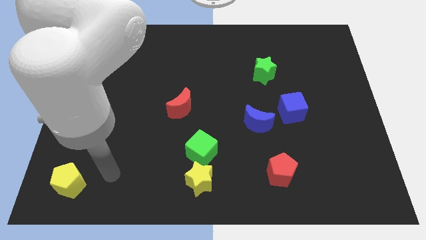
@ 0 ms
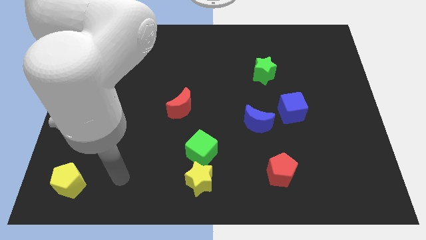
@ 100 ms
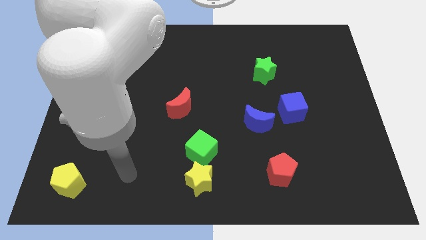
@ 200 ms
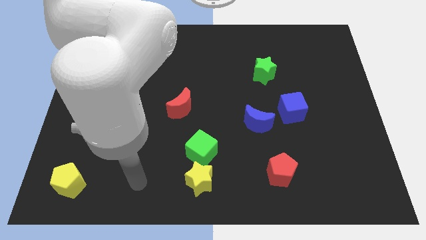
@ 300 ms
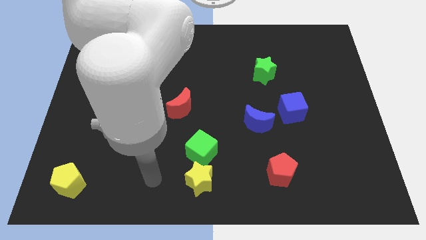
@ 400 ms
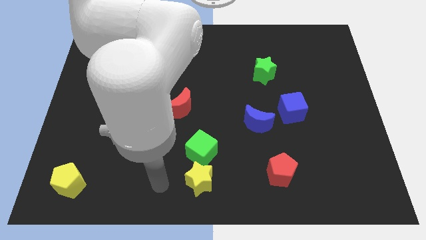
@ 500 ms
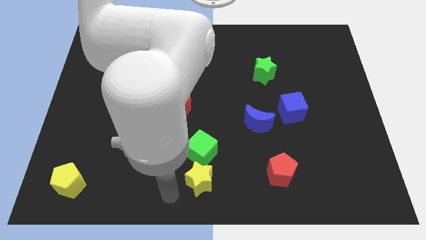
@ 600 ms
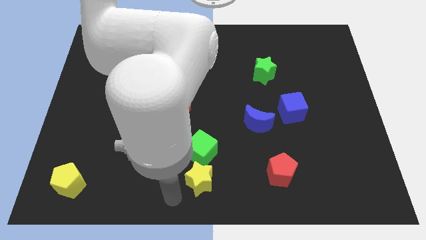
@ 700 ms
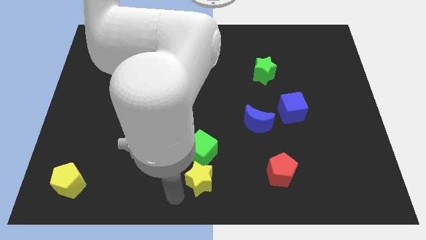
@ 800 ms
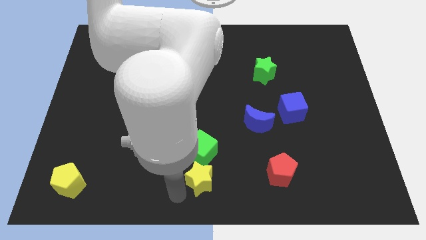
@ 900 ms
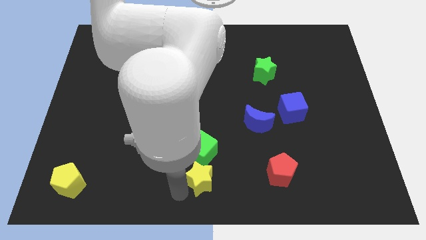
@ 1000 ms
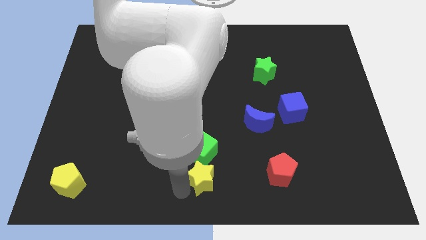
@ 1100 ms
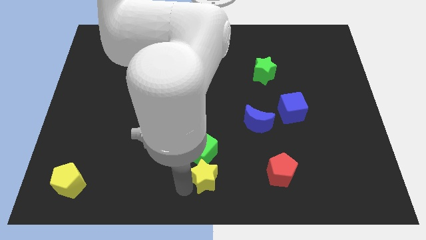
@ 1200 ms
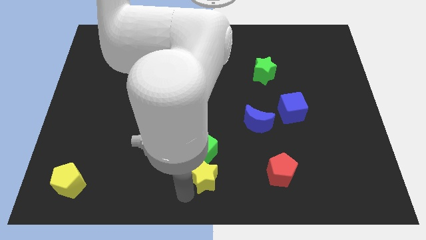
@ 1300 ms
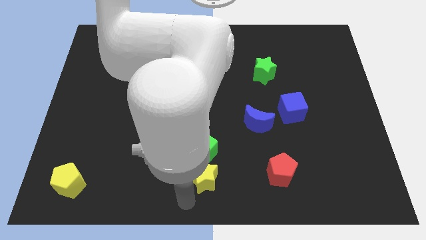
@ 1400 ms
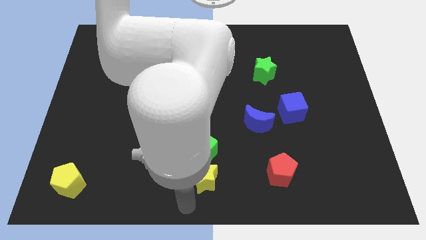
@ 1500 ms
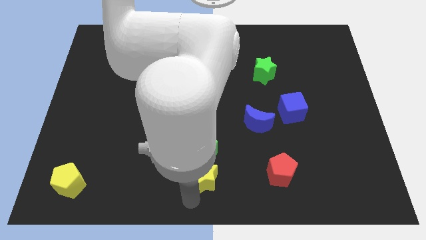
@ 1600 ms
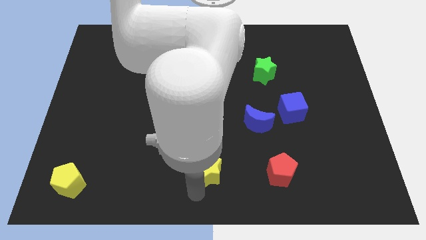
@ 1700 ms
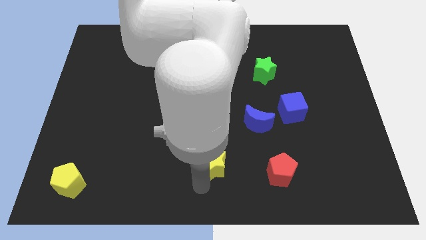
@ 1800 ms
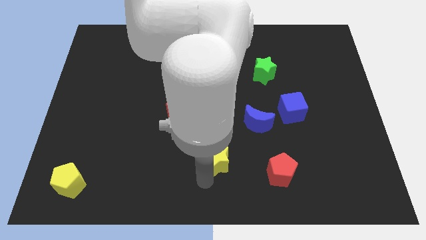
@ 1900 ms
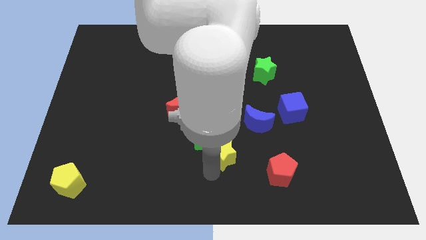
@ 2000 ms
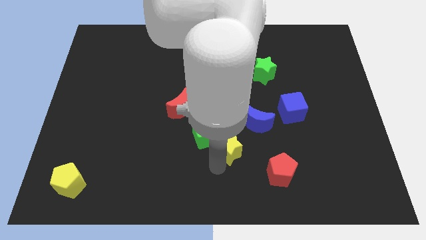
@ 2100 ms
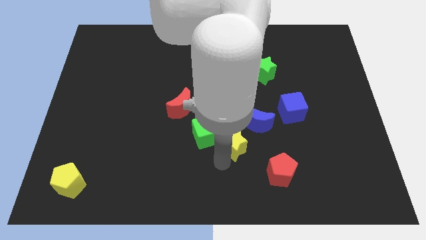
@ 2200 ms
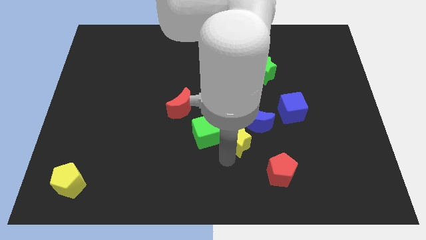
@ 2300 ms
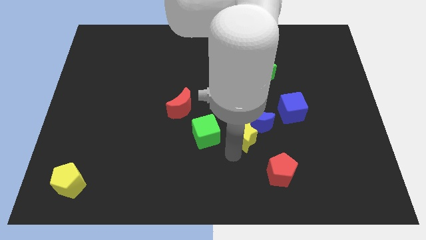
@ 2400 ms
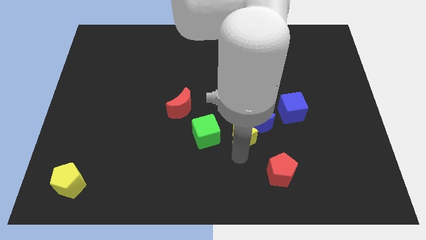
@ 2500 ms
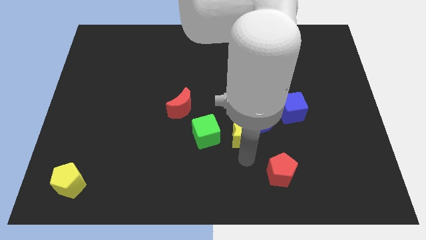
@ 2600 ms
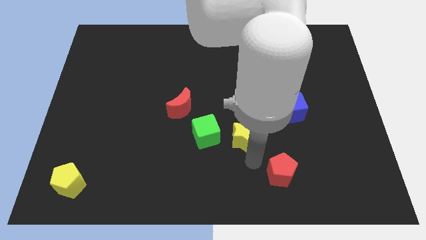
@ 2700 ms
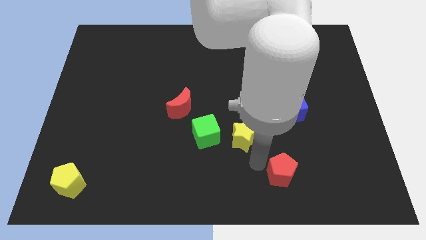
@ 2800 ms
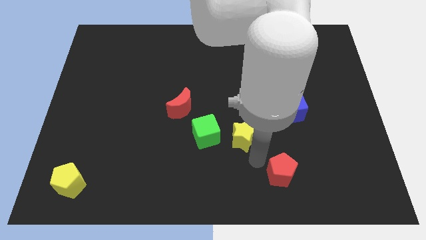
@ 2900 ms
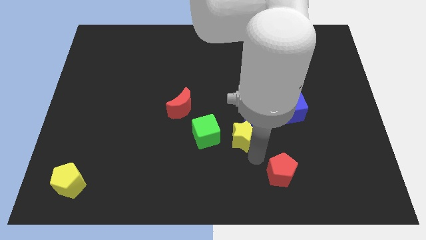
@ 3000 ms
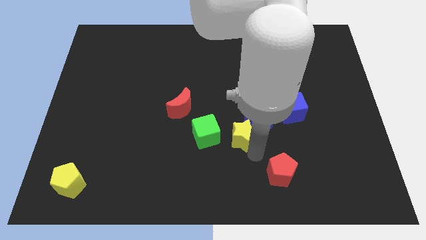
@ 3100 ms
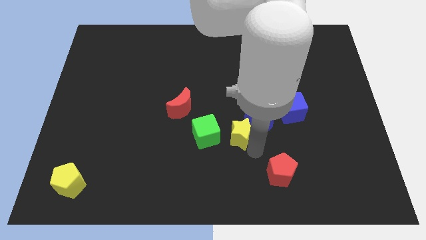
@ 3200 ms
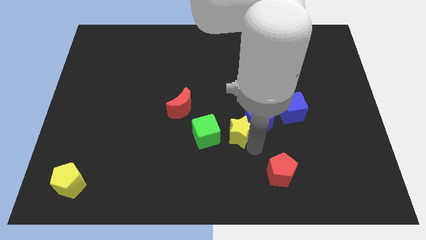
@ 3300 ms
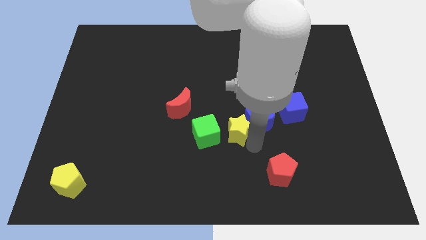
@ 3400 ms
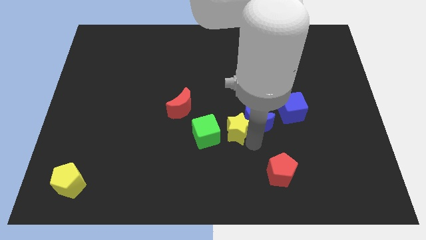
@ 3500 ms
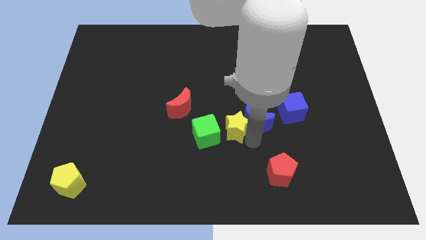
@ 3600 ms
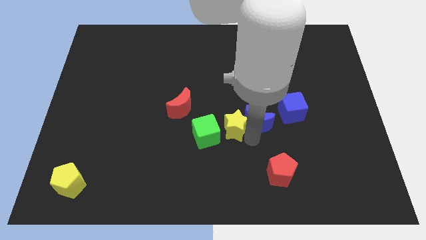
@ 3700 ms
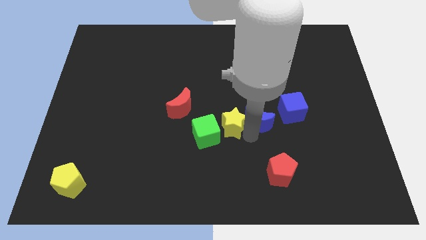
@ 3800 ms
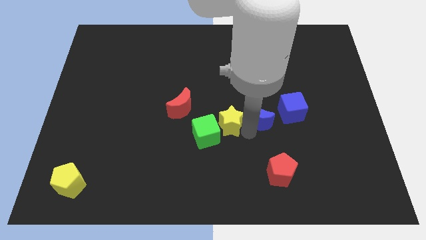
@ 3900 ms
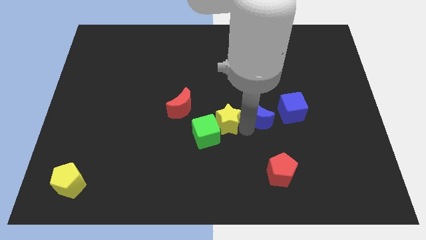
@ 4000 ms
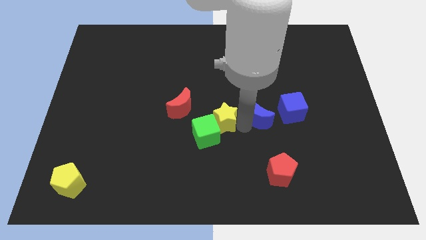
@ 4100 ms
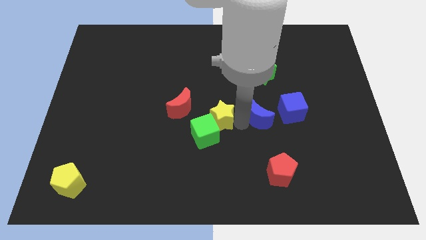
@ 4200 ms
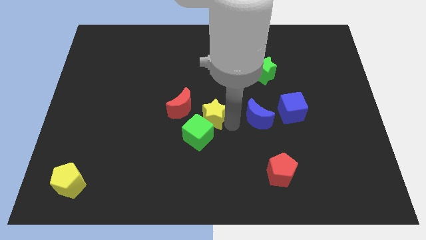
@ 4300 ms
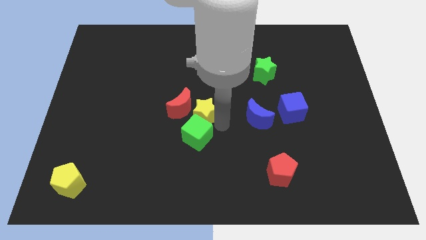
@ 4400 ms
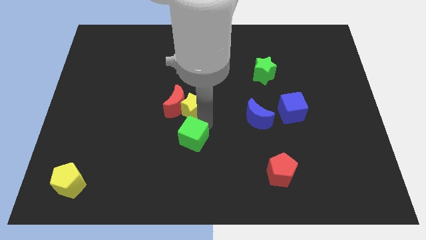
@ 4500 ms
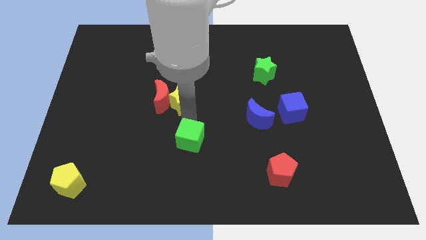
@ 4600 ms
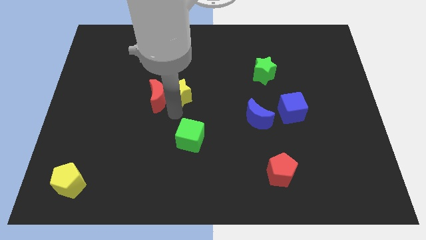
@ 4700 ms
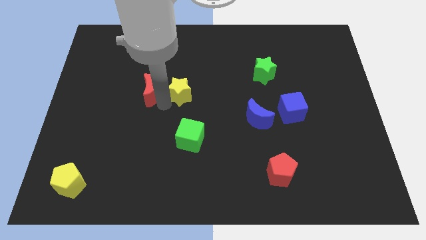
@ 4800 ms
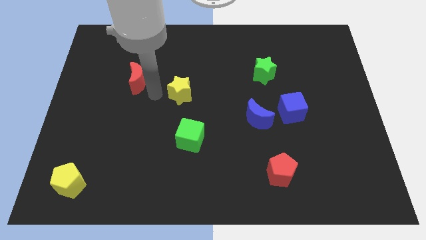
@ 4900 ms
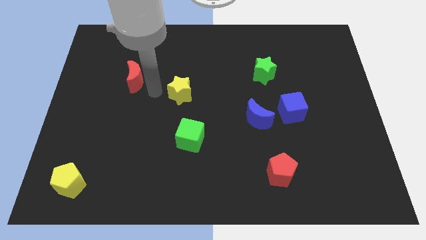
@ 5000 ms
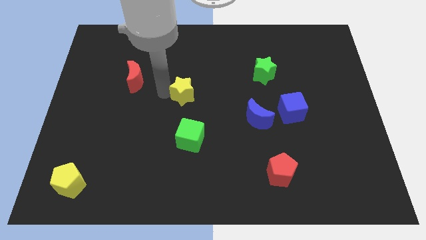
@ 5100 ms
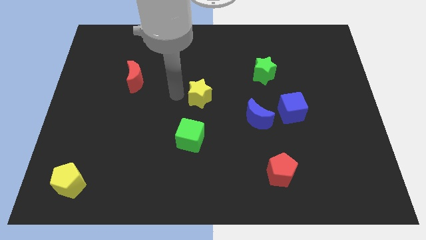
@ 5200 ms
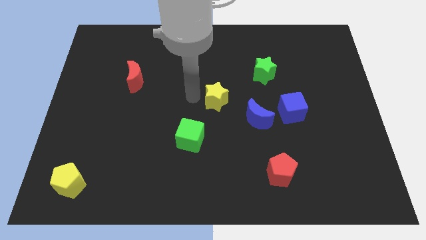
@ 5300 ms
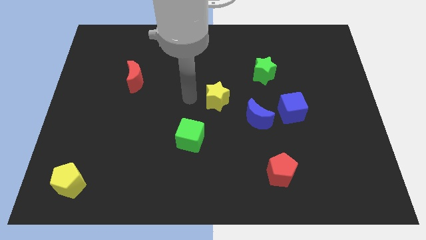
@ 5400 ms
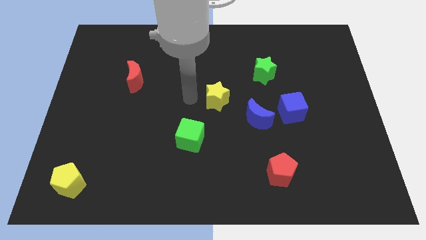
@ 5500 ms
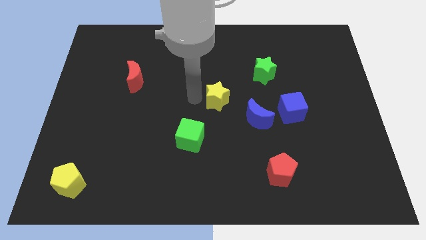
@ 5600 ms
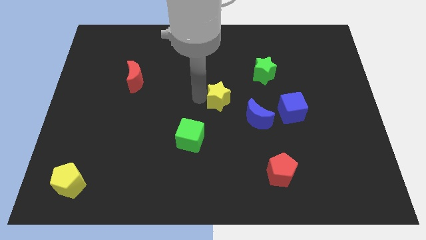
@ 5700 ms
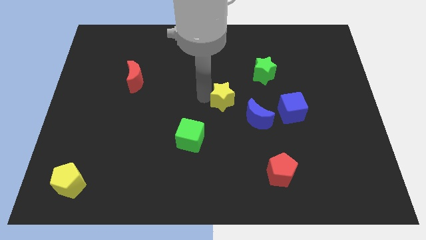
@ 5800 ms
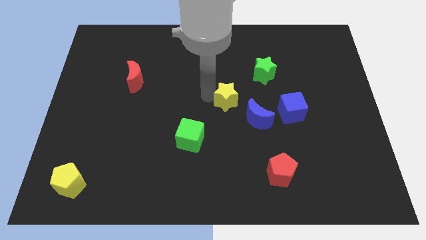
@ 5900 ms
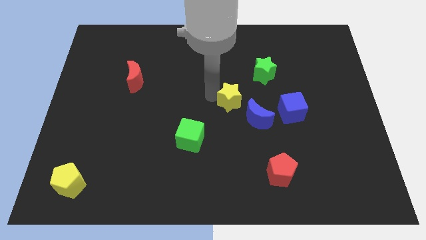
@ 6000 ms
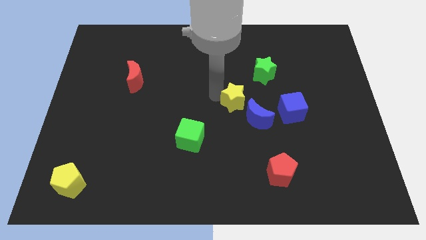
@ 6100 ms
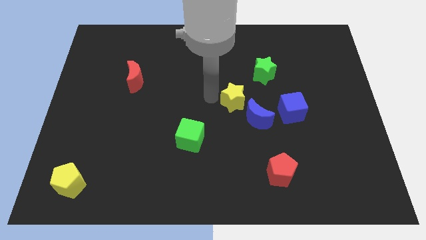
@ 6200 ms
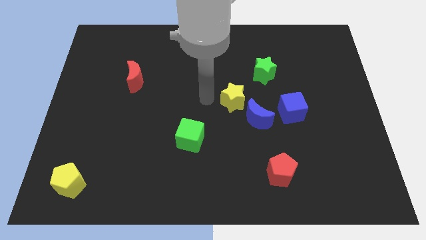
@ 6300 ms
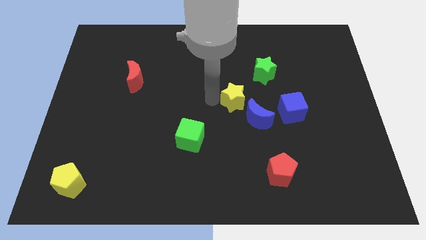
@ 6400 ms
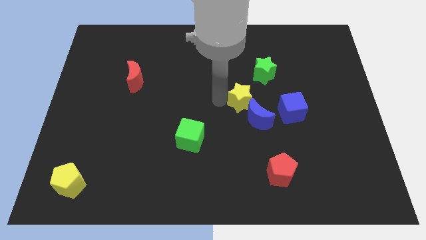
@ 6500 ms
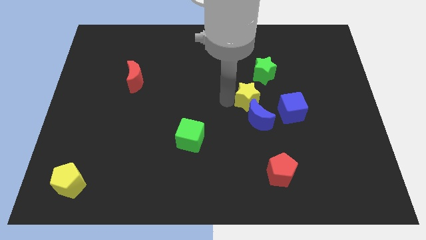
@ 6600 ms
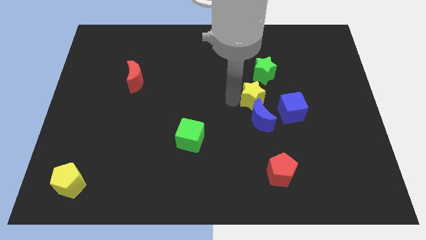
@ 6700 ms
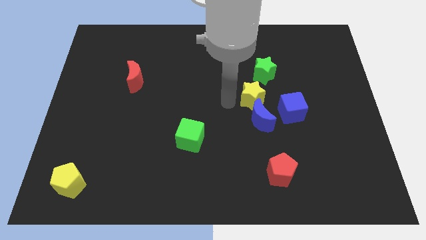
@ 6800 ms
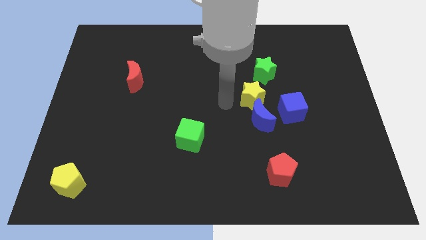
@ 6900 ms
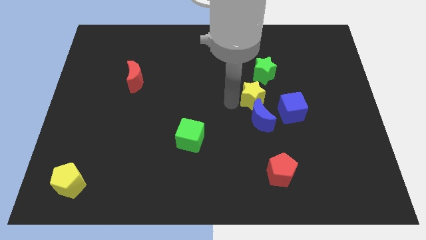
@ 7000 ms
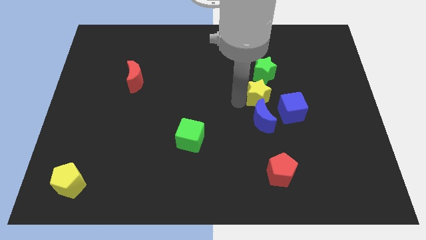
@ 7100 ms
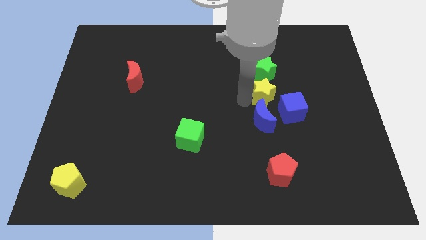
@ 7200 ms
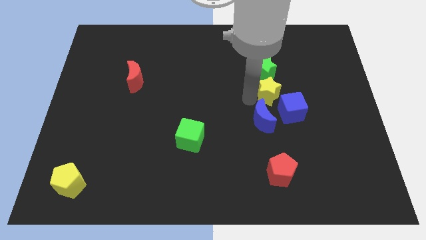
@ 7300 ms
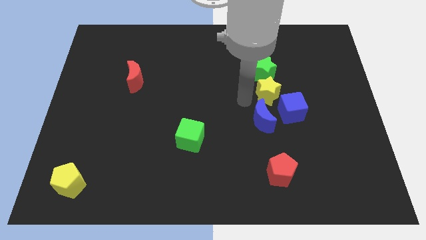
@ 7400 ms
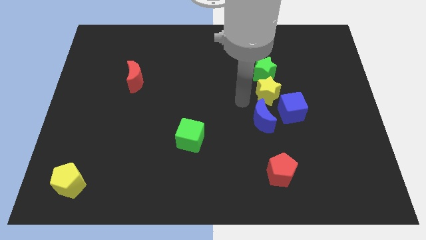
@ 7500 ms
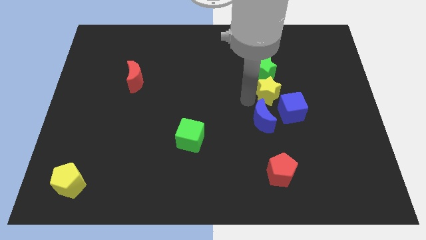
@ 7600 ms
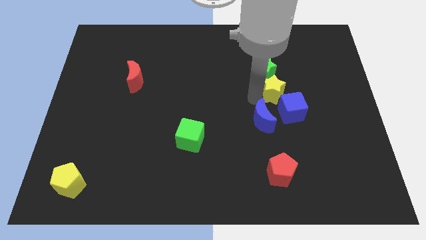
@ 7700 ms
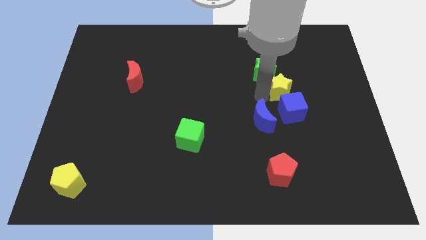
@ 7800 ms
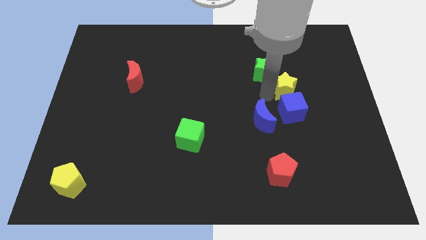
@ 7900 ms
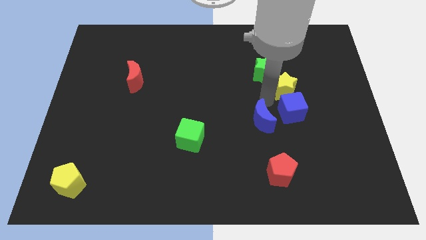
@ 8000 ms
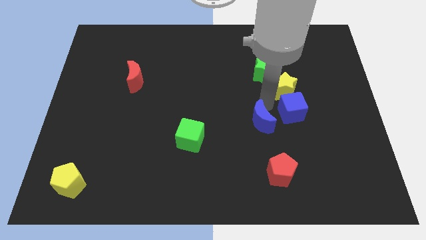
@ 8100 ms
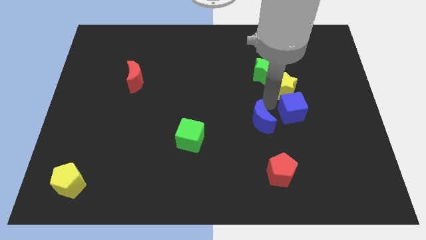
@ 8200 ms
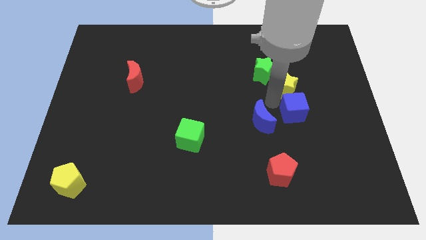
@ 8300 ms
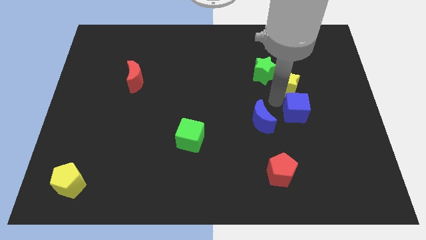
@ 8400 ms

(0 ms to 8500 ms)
slide the yellow star just right of the green star
